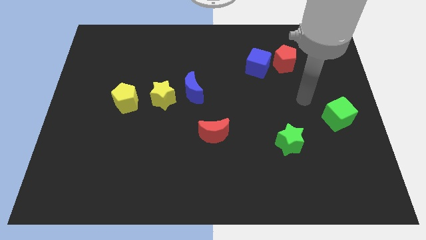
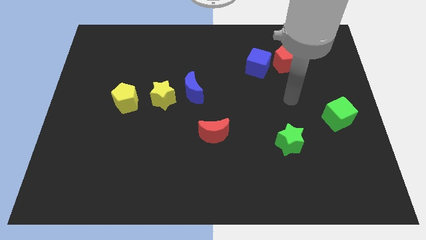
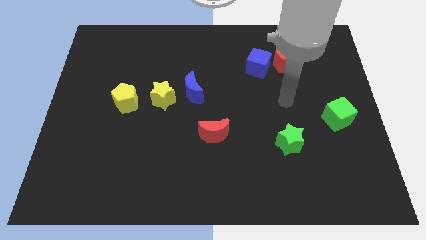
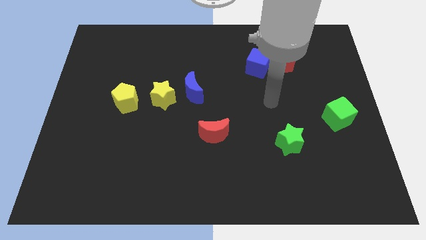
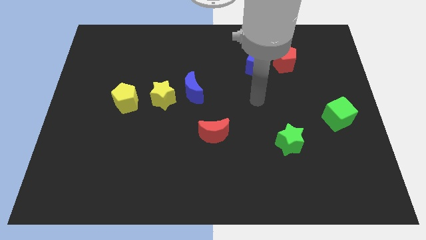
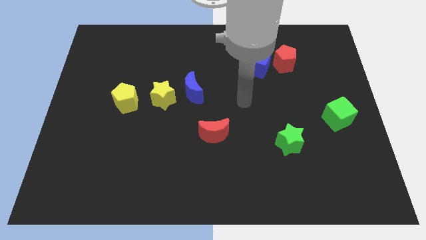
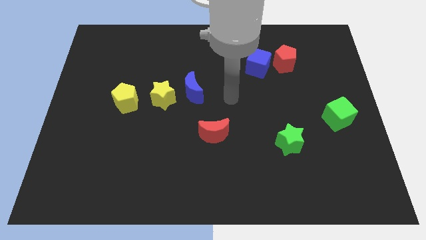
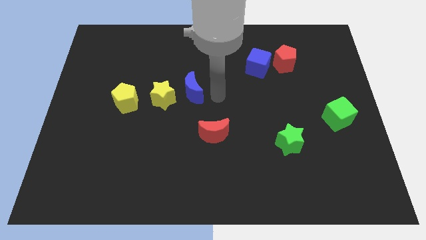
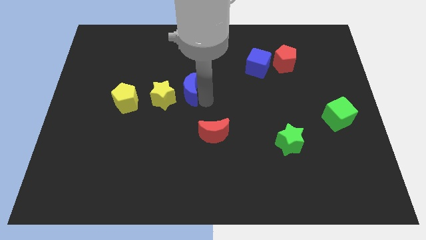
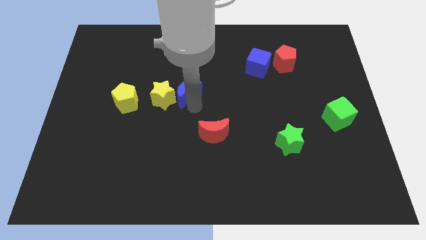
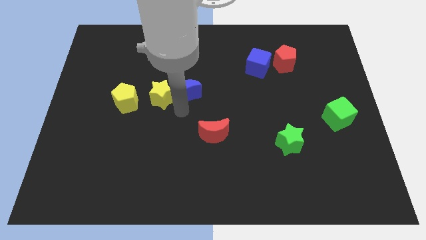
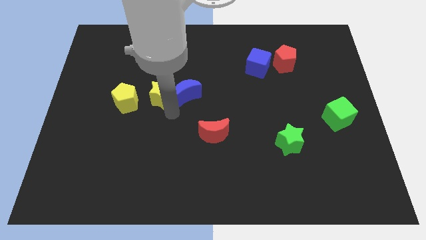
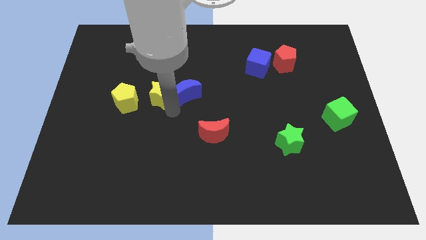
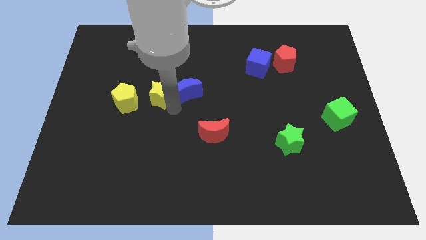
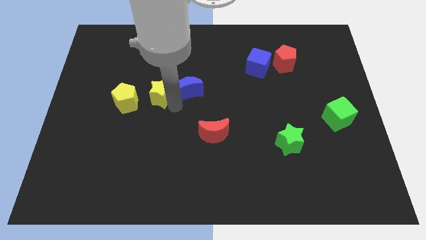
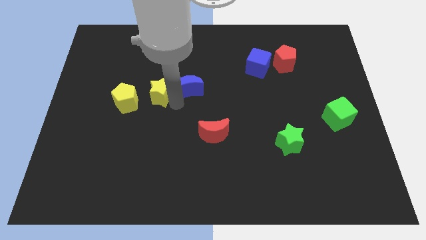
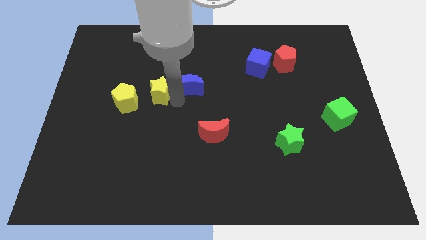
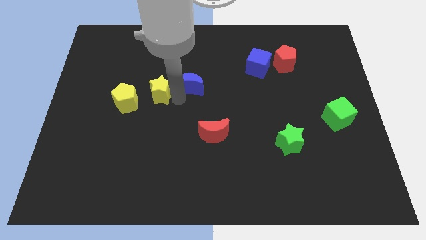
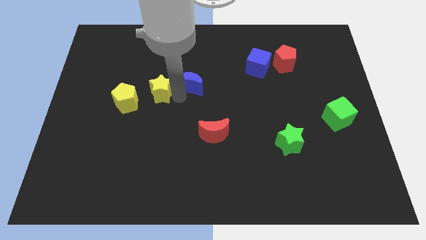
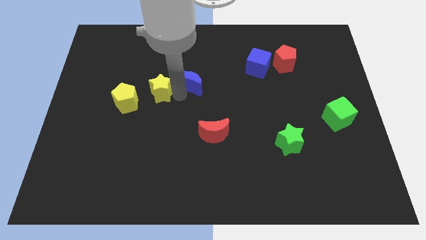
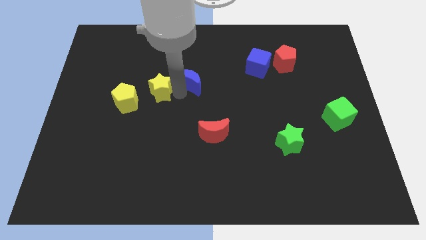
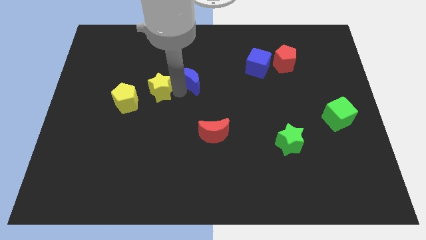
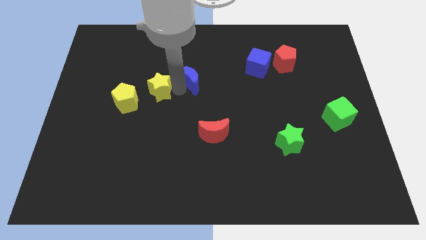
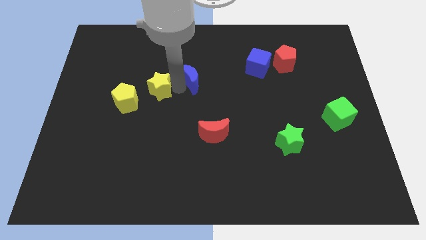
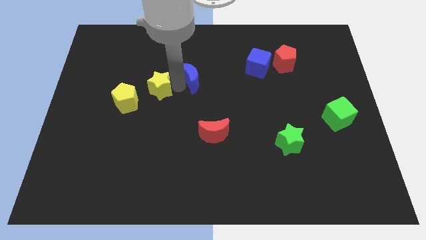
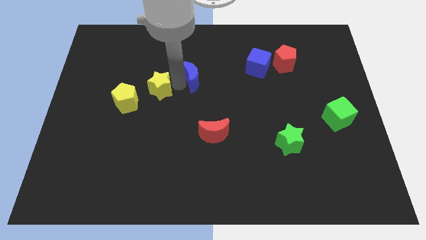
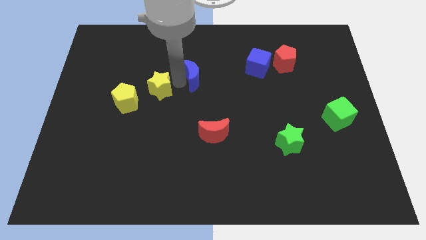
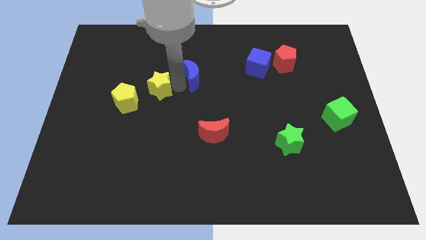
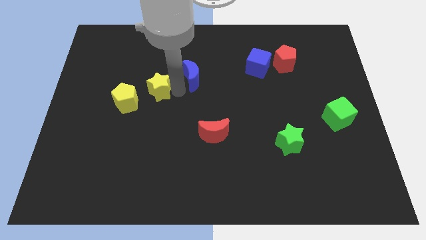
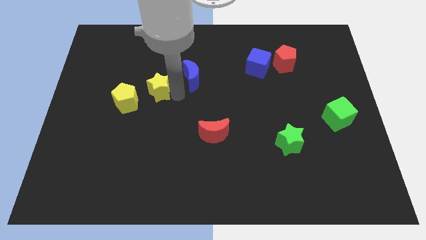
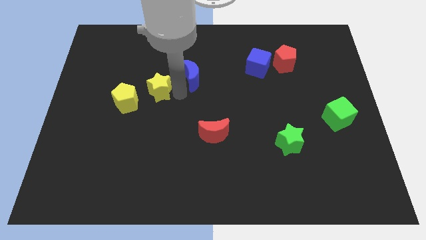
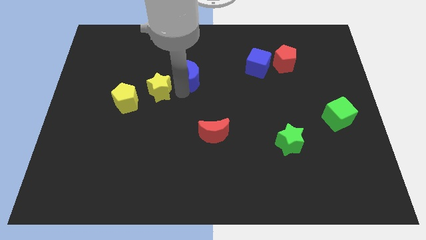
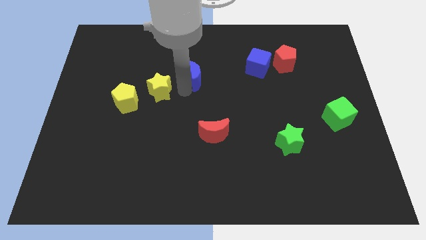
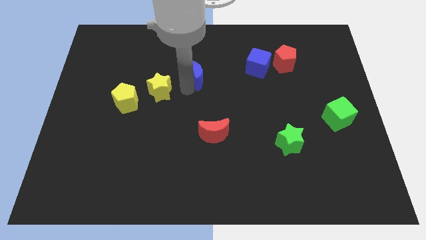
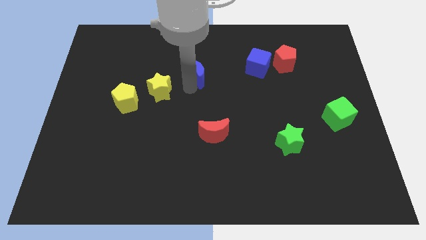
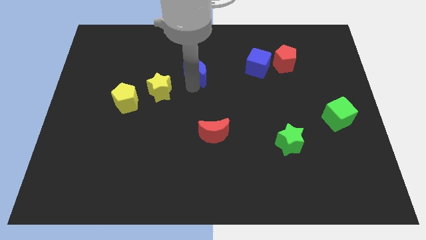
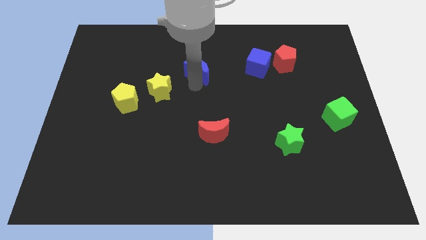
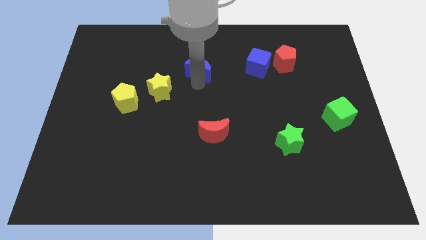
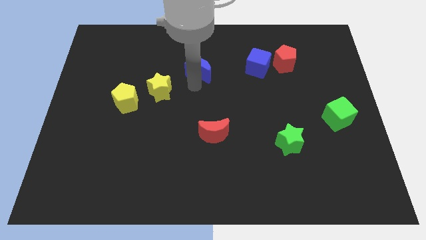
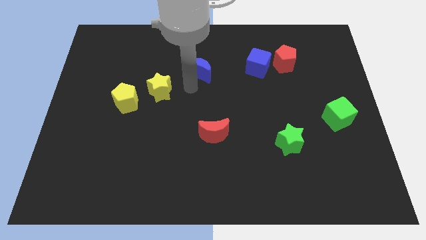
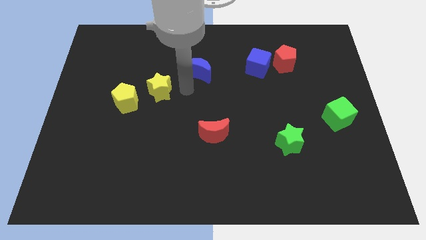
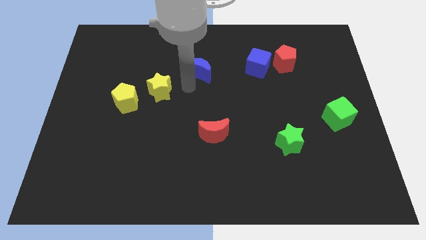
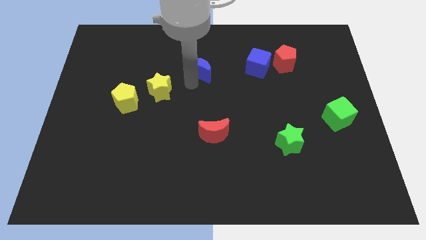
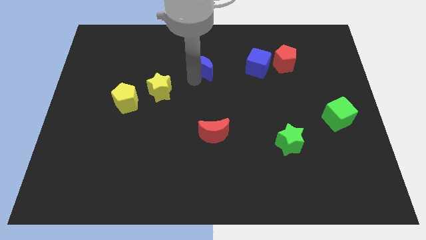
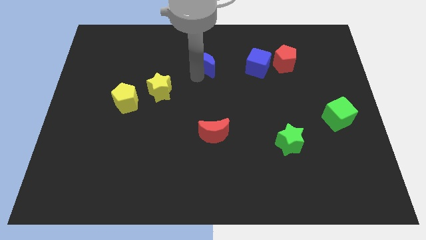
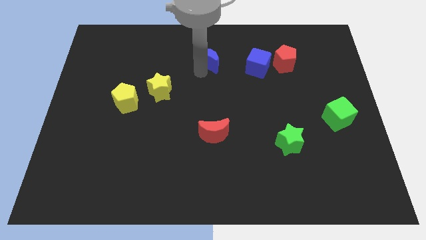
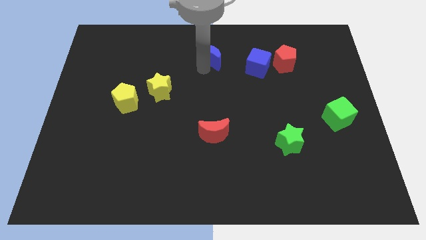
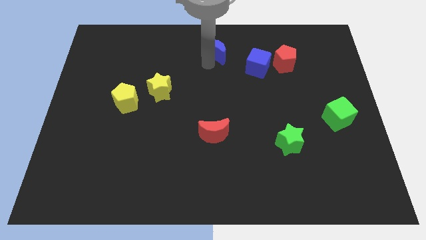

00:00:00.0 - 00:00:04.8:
put the blue moon to the top side

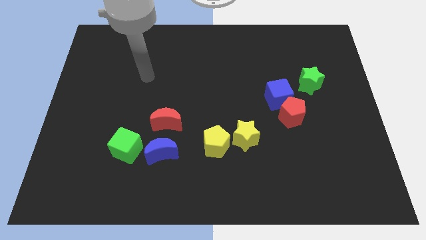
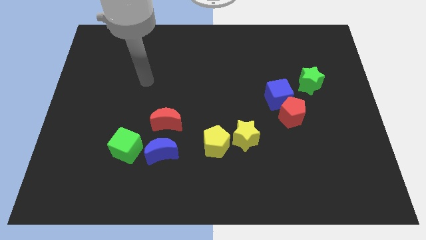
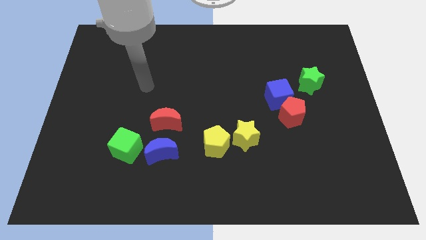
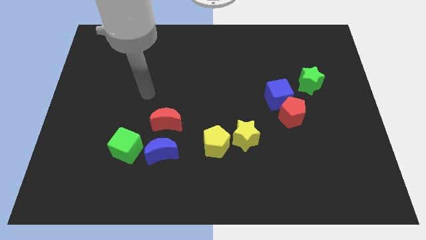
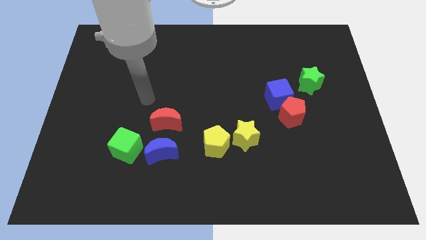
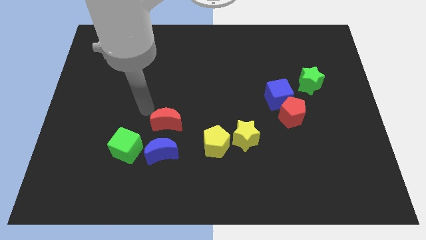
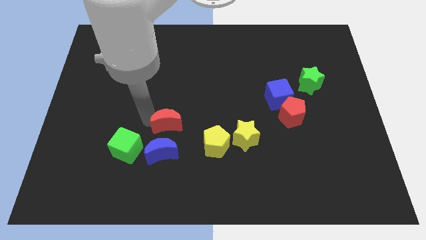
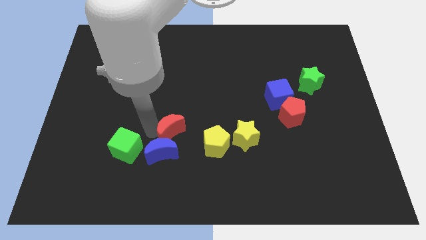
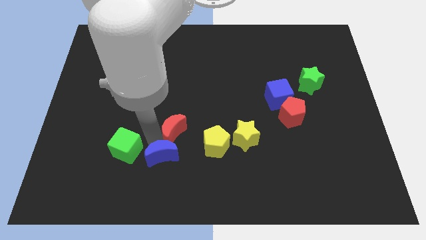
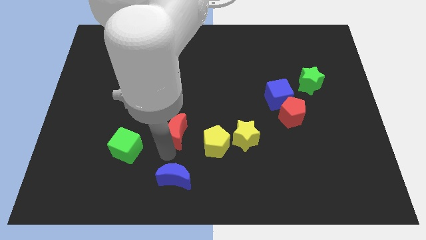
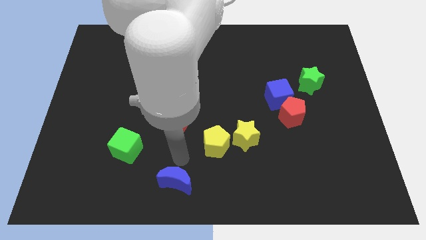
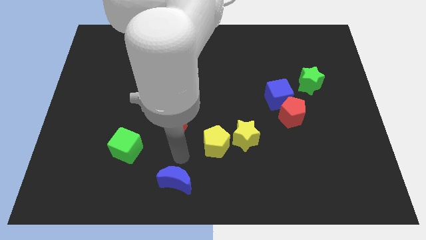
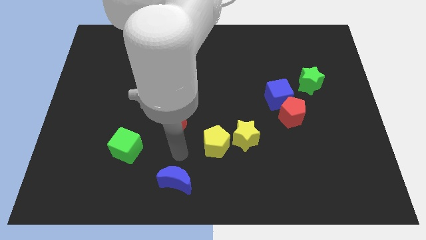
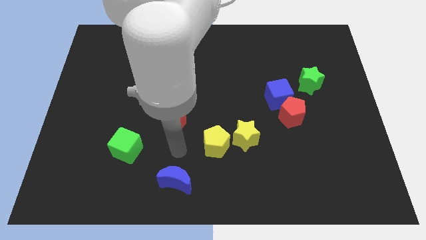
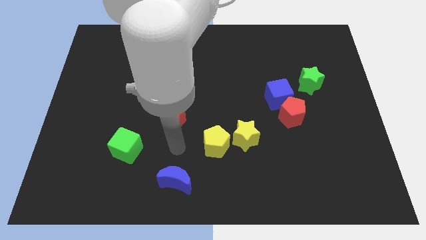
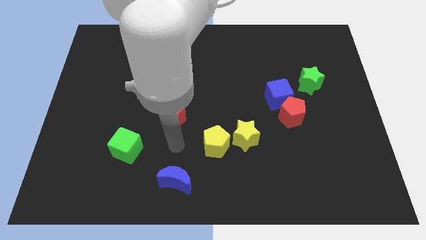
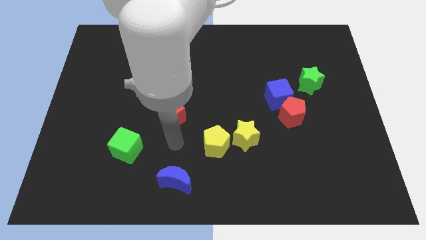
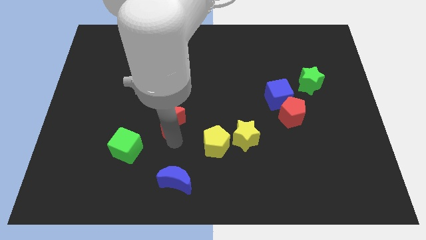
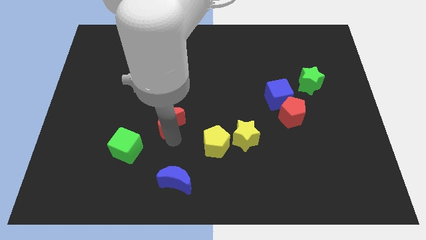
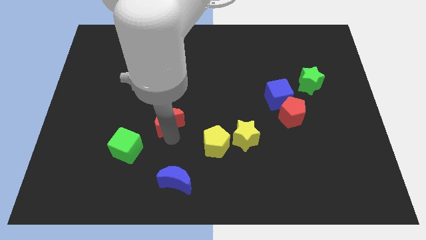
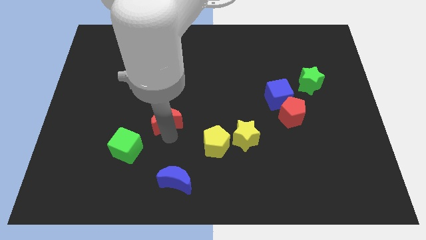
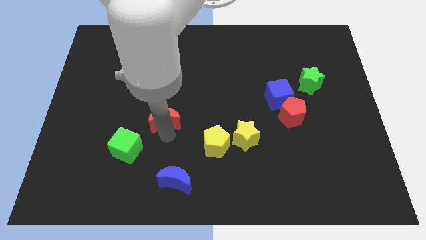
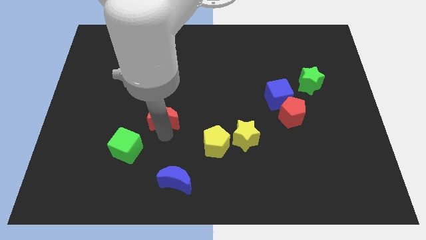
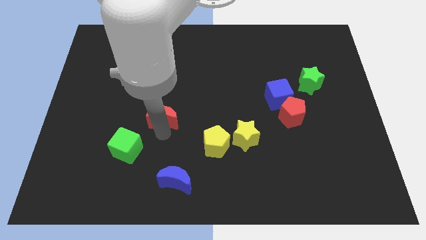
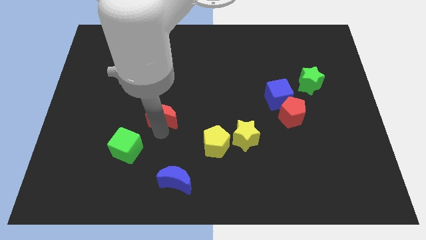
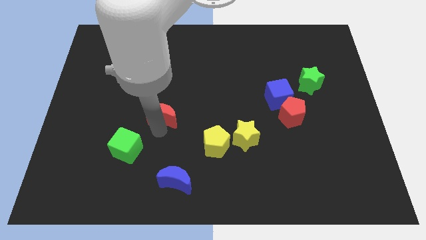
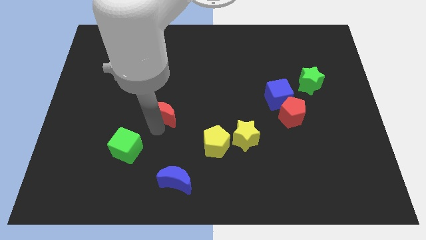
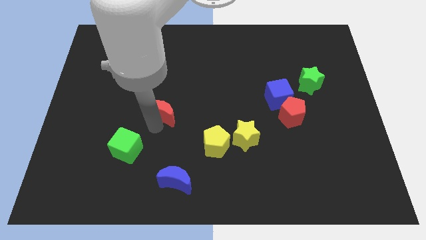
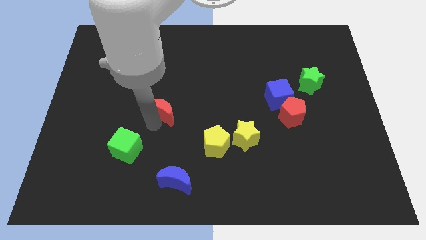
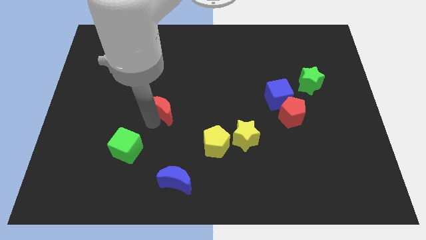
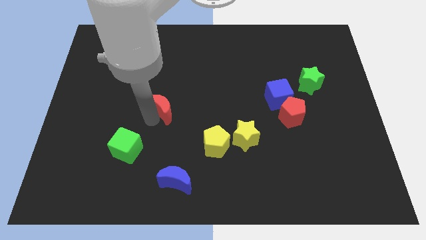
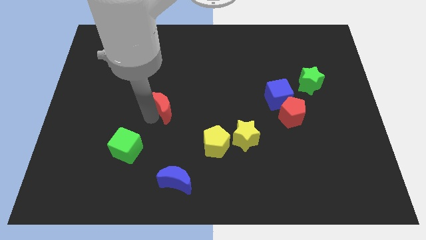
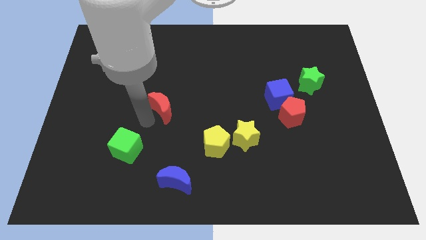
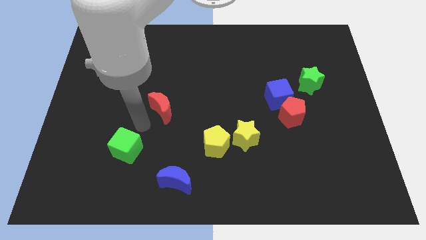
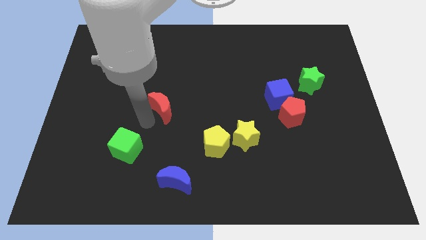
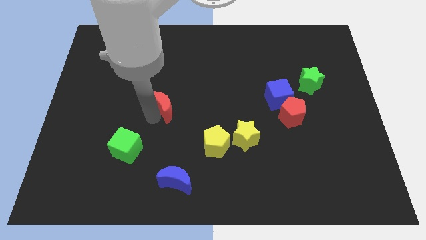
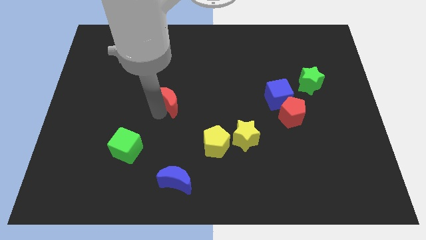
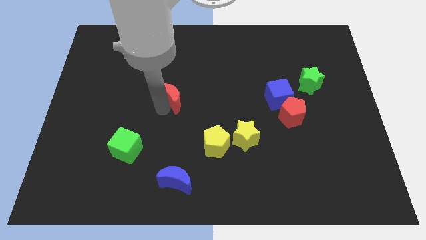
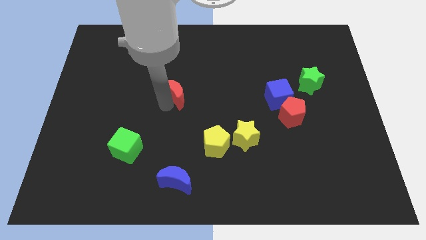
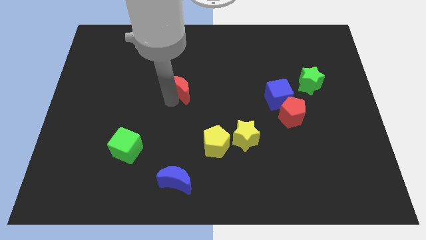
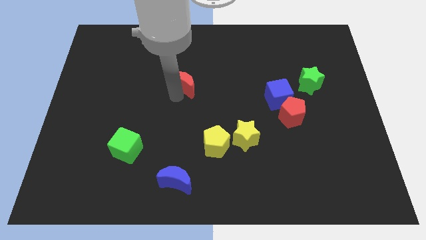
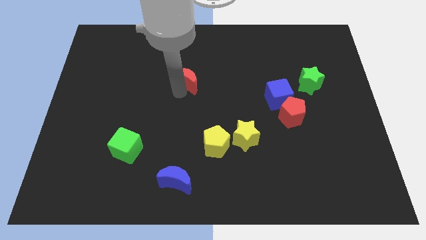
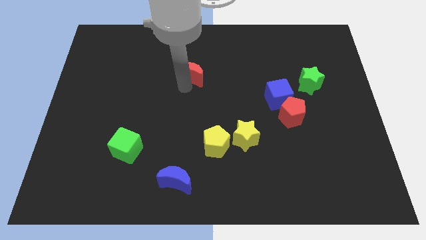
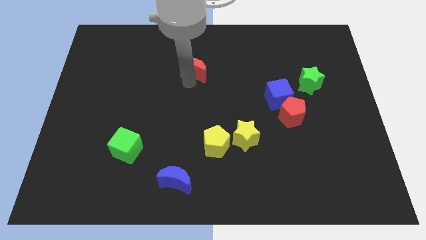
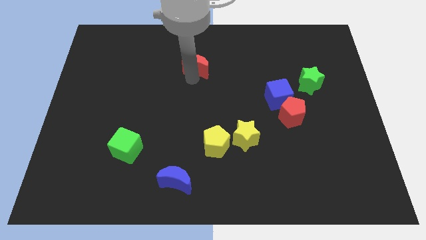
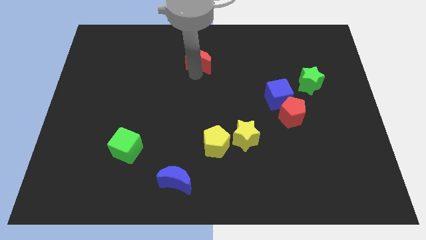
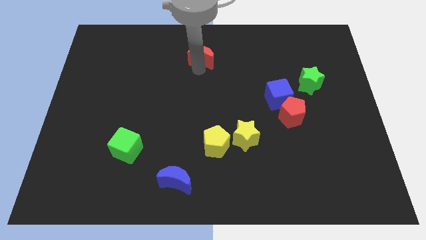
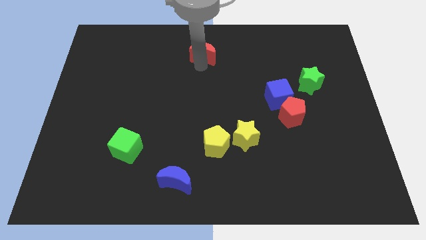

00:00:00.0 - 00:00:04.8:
push the red moon to the top
